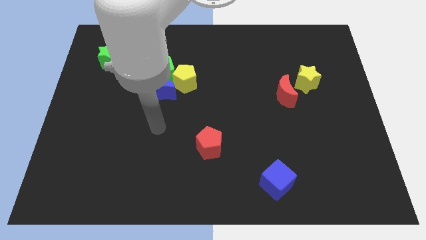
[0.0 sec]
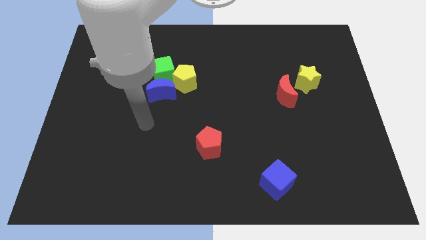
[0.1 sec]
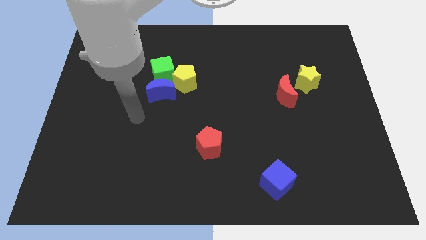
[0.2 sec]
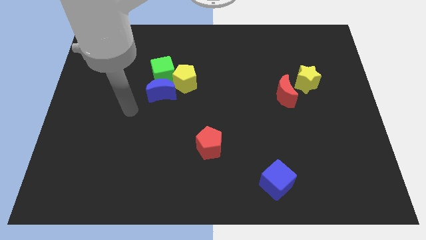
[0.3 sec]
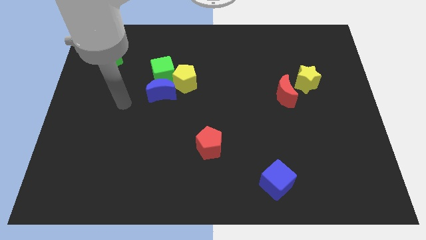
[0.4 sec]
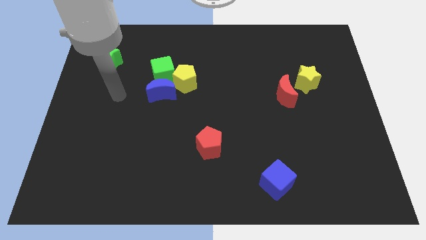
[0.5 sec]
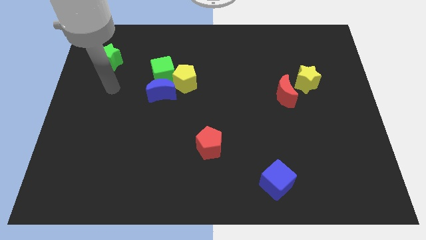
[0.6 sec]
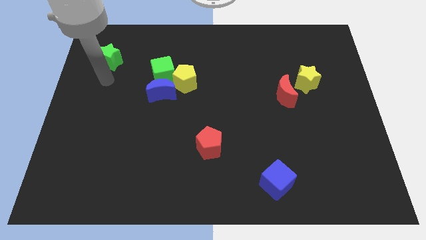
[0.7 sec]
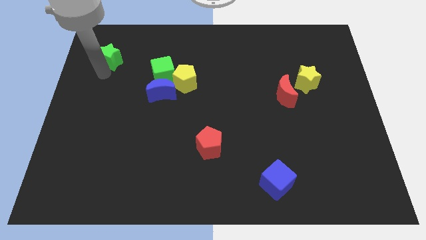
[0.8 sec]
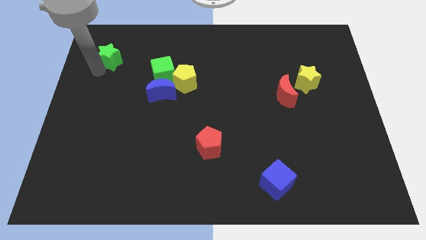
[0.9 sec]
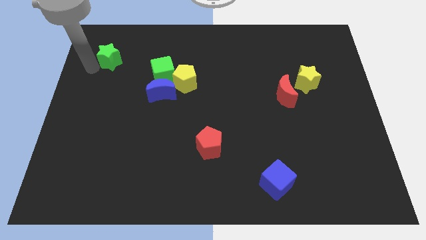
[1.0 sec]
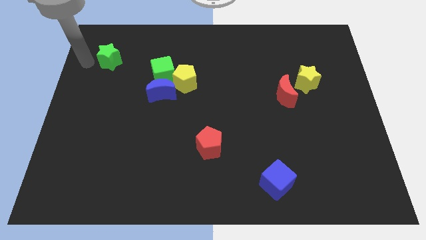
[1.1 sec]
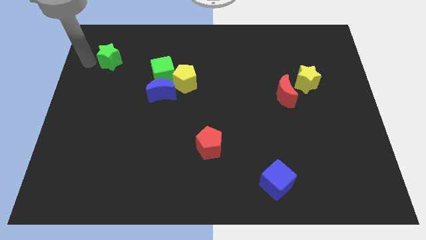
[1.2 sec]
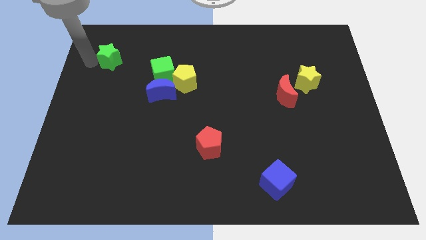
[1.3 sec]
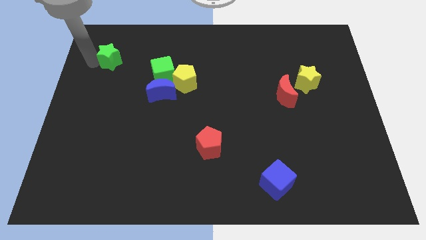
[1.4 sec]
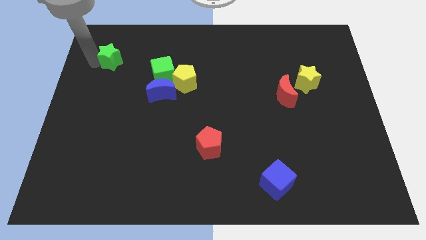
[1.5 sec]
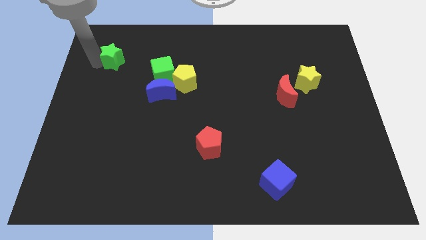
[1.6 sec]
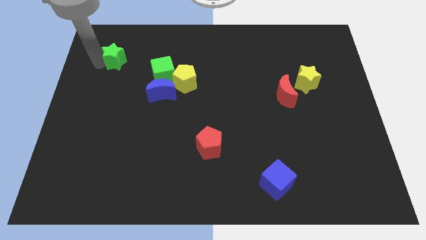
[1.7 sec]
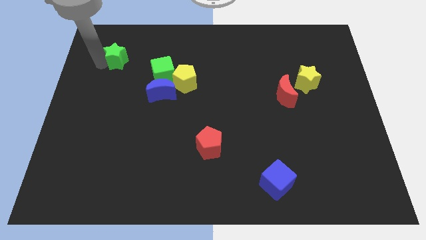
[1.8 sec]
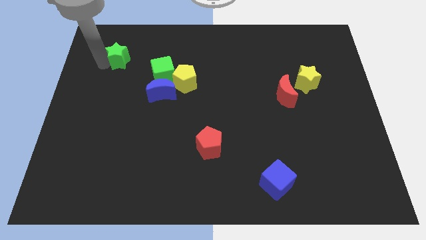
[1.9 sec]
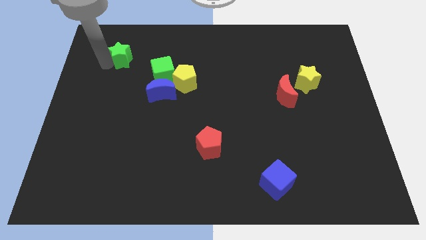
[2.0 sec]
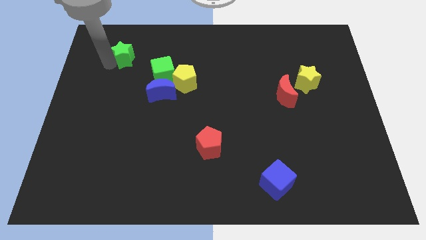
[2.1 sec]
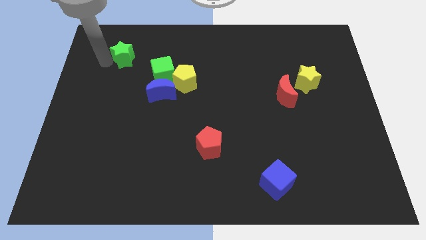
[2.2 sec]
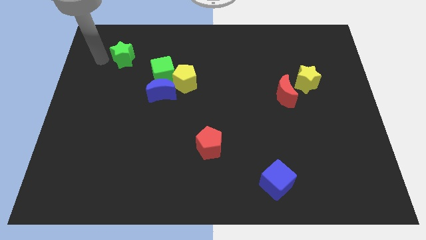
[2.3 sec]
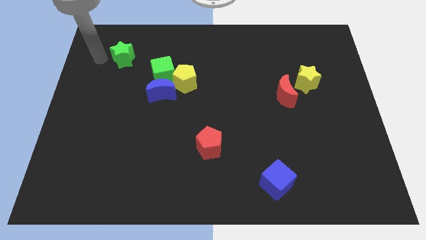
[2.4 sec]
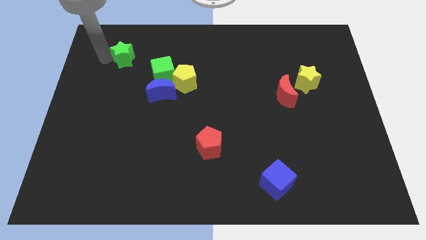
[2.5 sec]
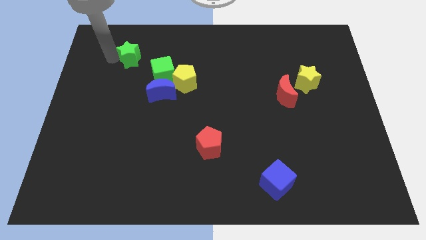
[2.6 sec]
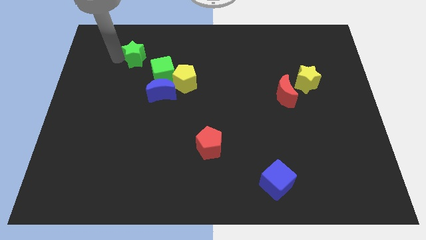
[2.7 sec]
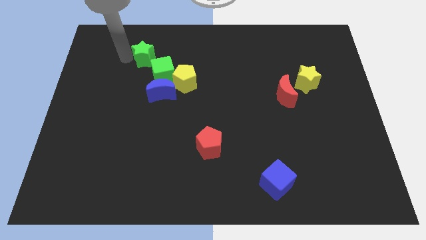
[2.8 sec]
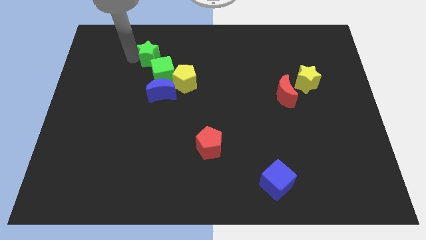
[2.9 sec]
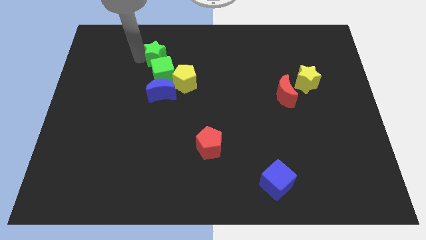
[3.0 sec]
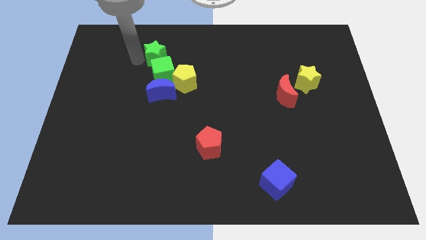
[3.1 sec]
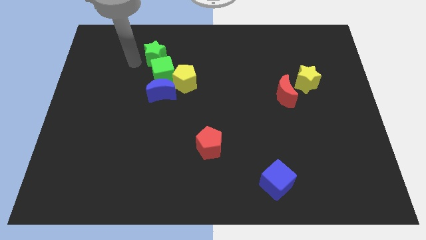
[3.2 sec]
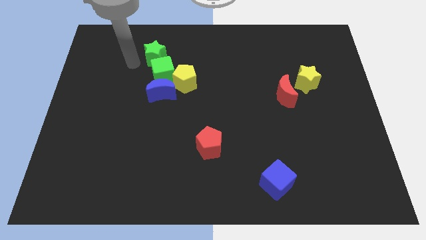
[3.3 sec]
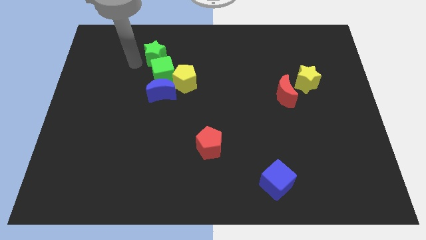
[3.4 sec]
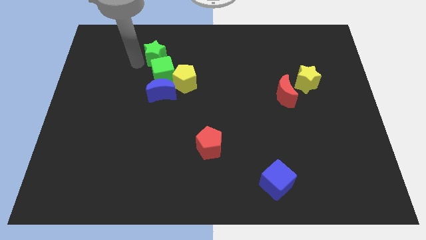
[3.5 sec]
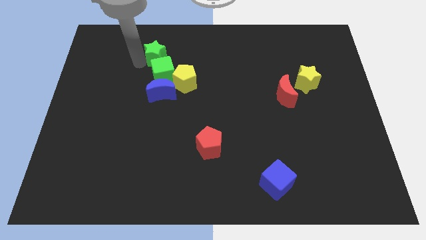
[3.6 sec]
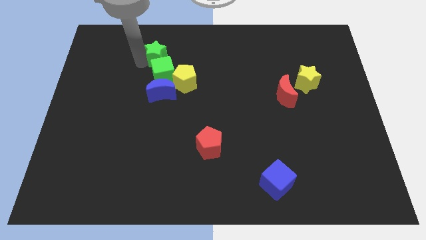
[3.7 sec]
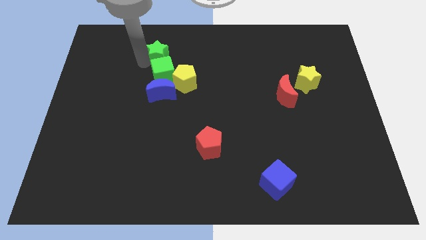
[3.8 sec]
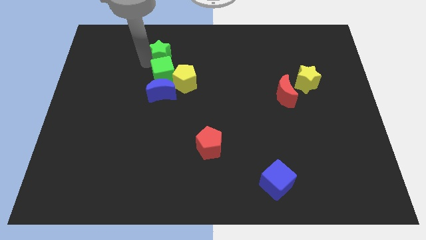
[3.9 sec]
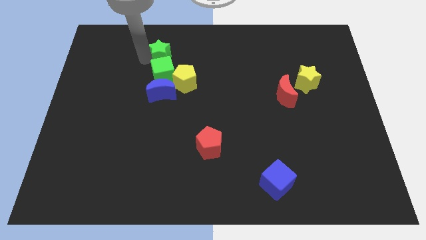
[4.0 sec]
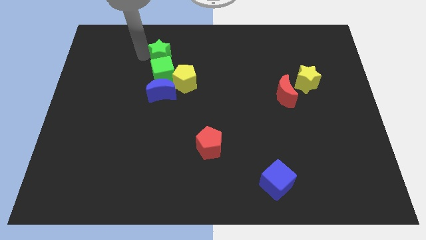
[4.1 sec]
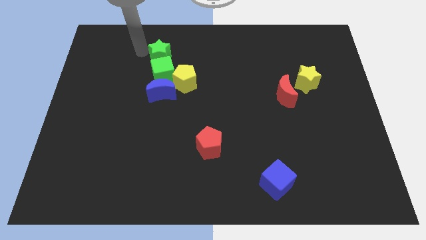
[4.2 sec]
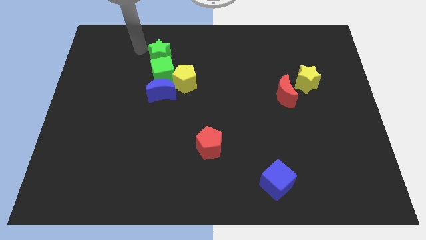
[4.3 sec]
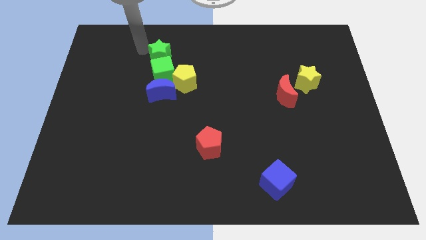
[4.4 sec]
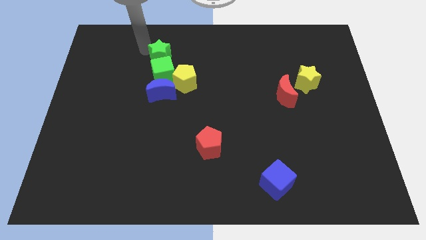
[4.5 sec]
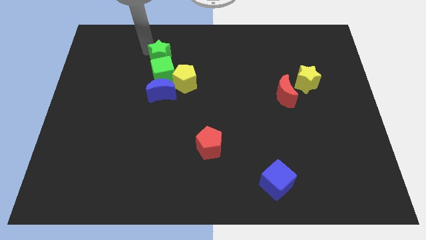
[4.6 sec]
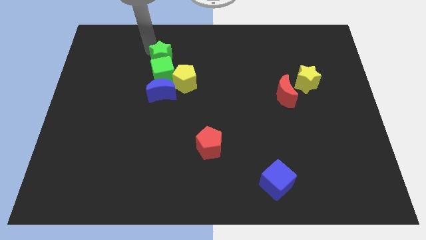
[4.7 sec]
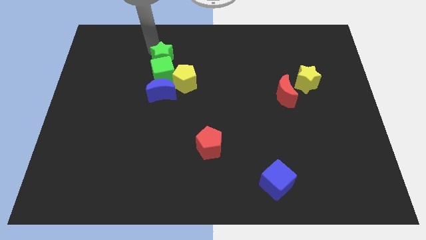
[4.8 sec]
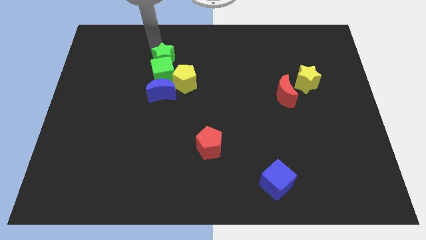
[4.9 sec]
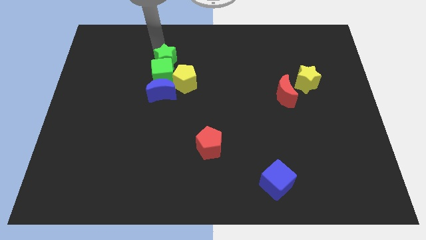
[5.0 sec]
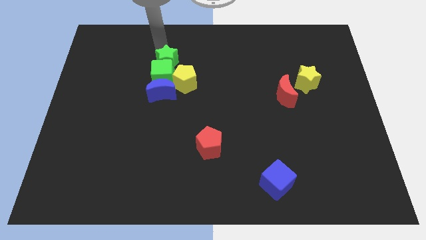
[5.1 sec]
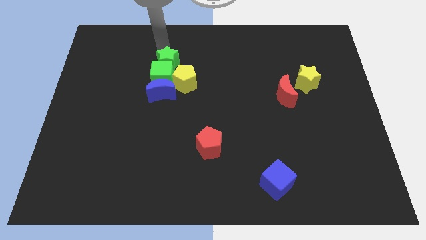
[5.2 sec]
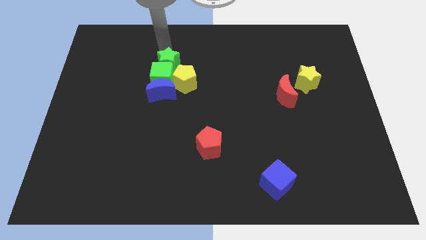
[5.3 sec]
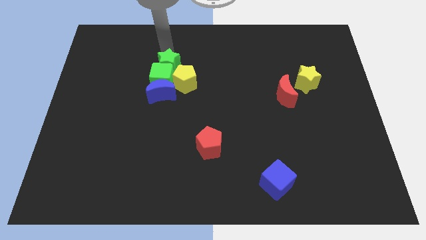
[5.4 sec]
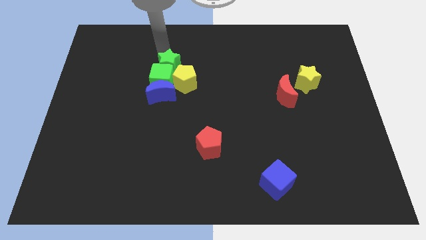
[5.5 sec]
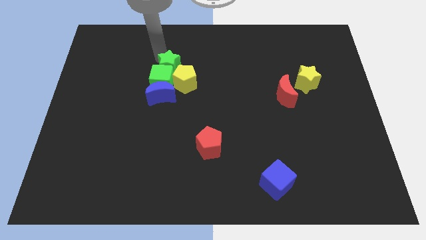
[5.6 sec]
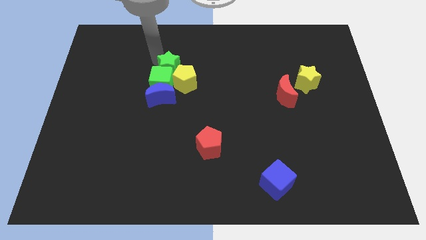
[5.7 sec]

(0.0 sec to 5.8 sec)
push the green star towards the yellow pentagon

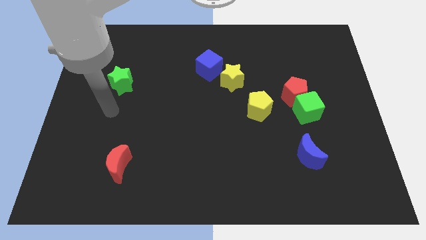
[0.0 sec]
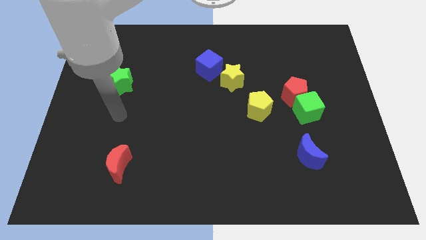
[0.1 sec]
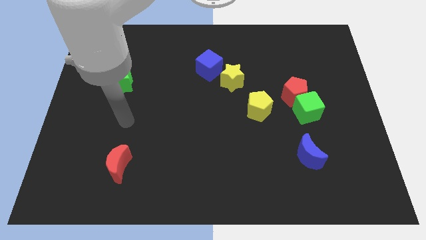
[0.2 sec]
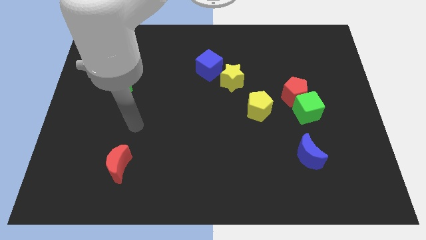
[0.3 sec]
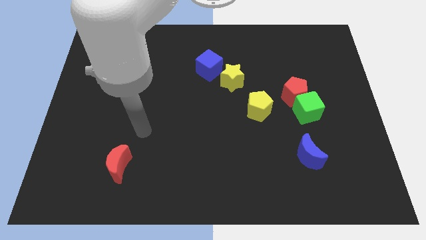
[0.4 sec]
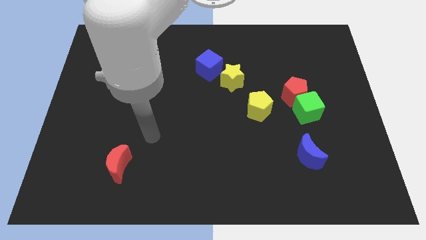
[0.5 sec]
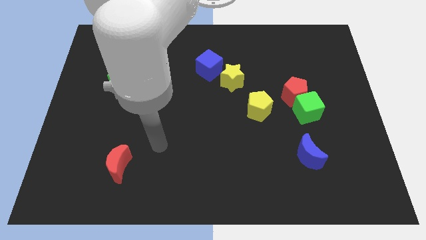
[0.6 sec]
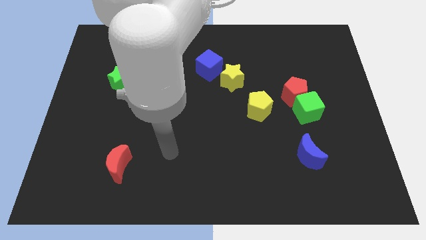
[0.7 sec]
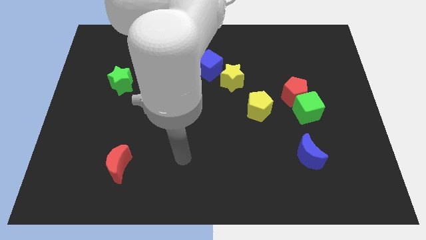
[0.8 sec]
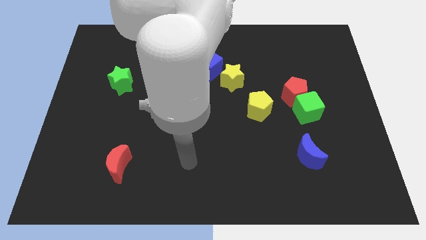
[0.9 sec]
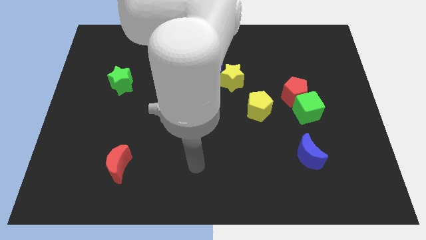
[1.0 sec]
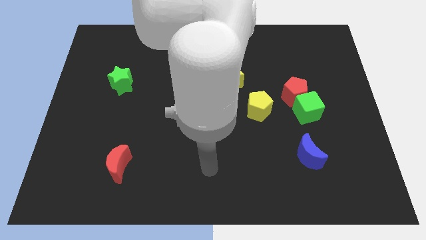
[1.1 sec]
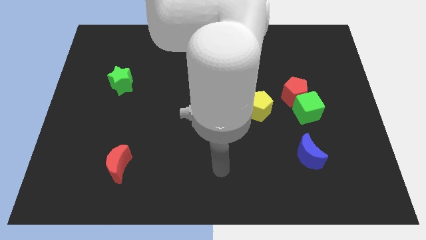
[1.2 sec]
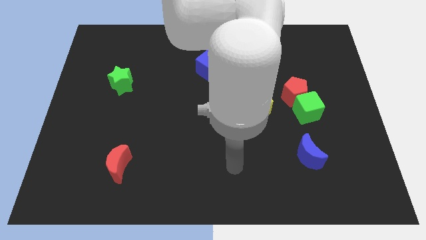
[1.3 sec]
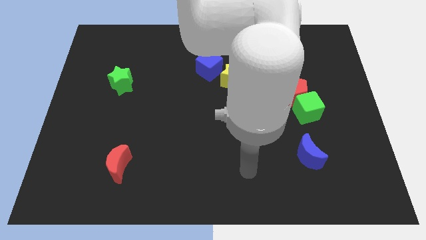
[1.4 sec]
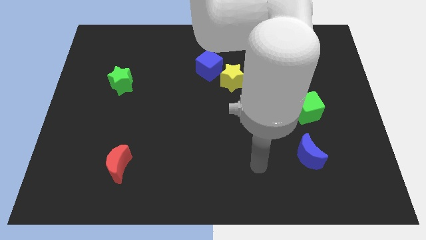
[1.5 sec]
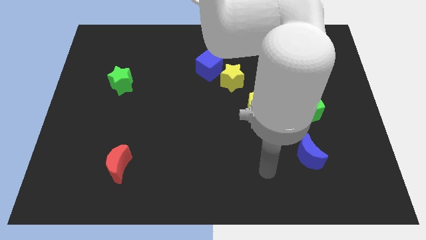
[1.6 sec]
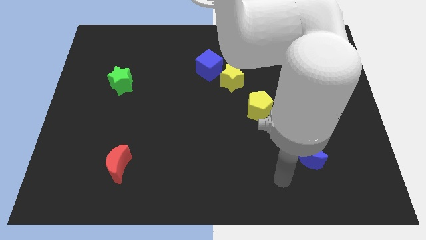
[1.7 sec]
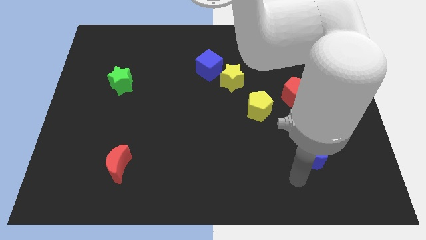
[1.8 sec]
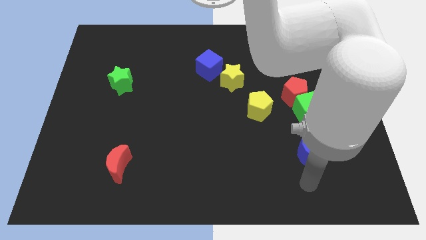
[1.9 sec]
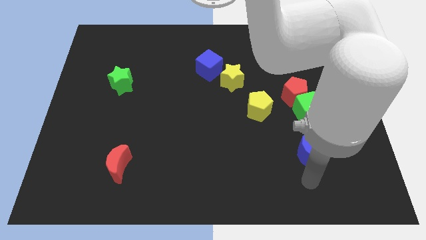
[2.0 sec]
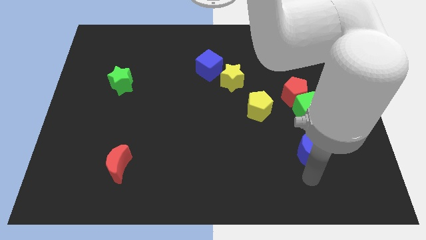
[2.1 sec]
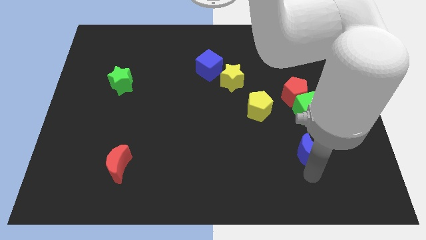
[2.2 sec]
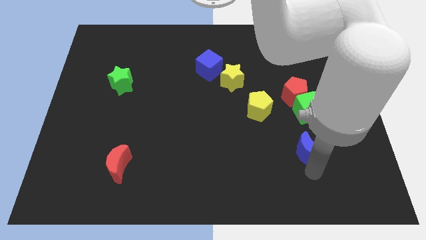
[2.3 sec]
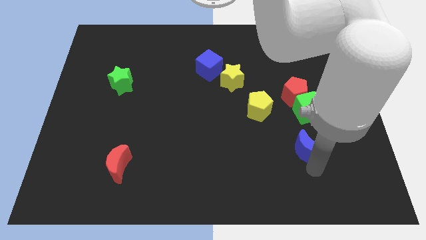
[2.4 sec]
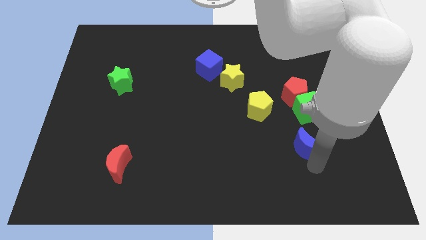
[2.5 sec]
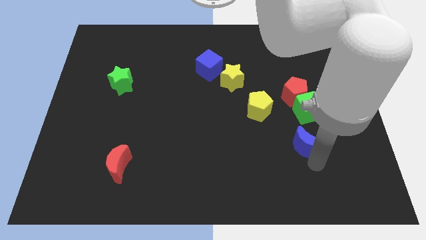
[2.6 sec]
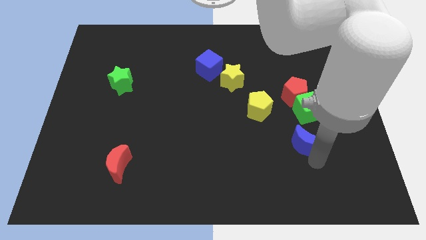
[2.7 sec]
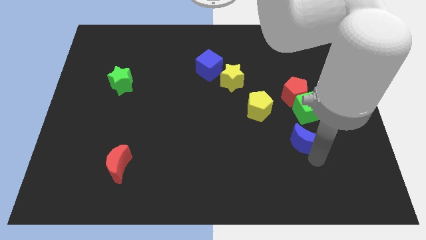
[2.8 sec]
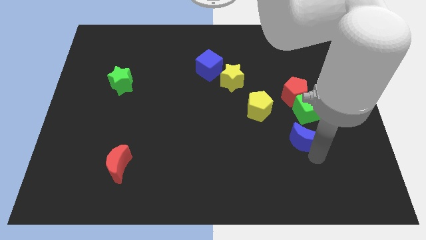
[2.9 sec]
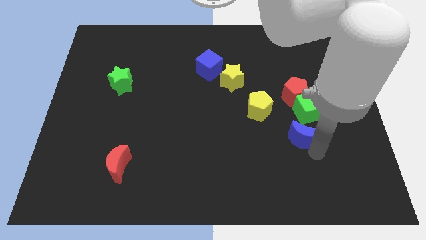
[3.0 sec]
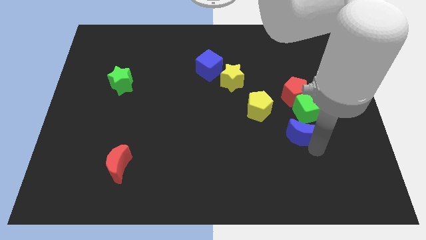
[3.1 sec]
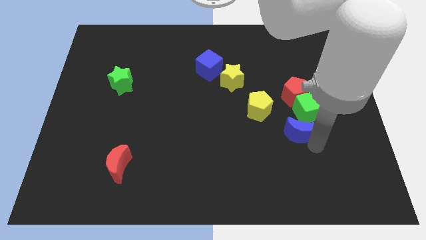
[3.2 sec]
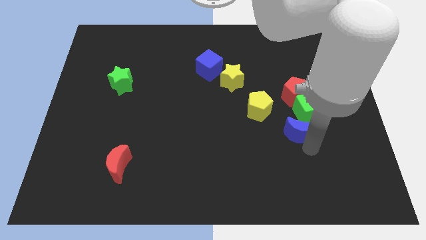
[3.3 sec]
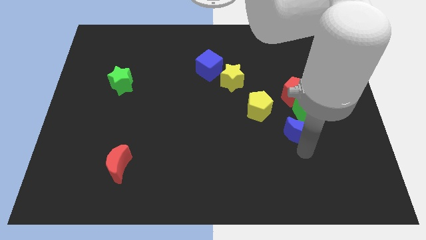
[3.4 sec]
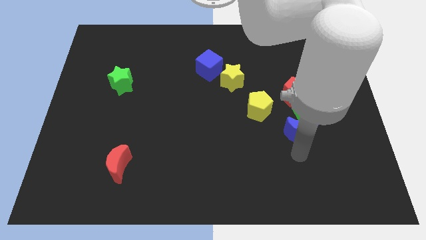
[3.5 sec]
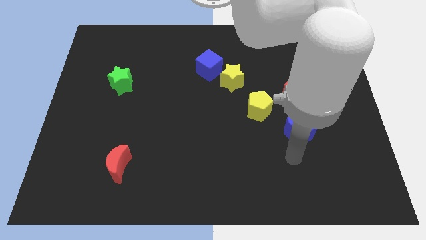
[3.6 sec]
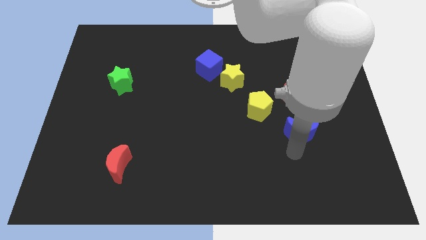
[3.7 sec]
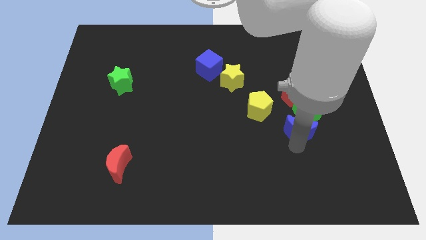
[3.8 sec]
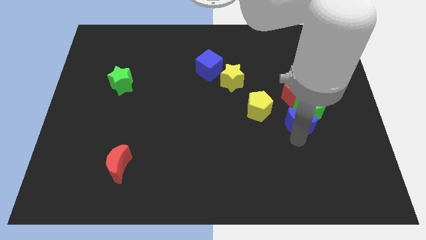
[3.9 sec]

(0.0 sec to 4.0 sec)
push the blue moon to the green cube
